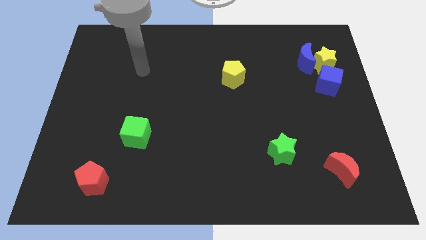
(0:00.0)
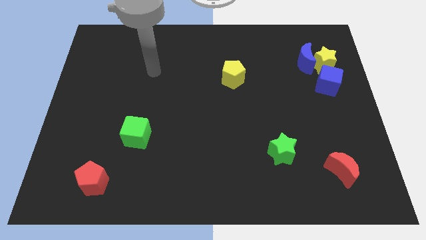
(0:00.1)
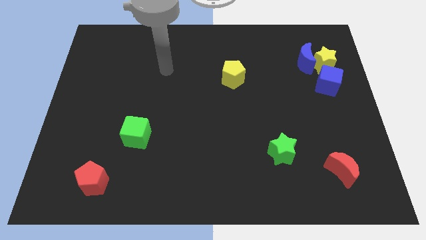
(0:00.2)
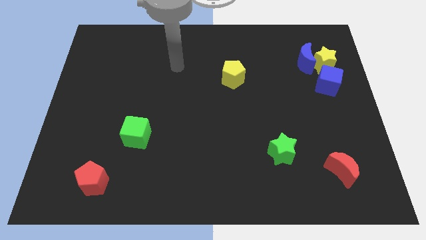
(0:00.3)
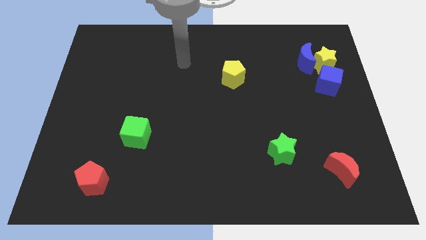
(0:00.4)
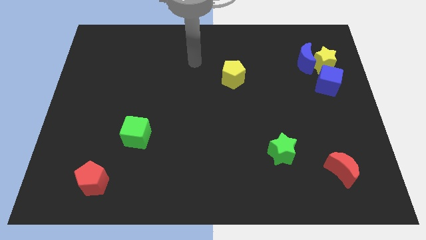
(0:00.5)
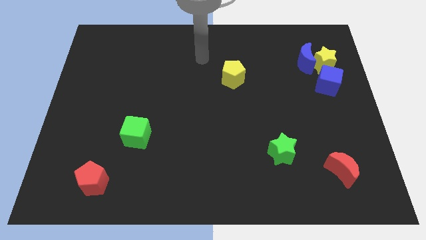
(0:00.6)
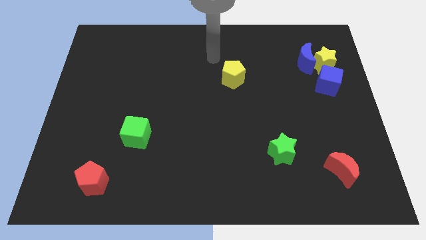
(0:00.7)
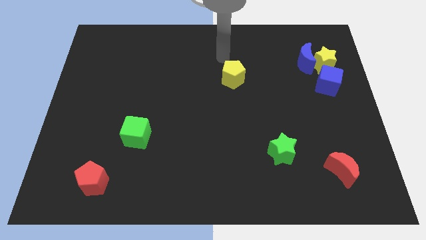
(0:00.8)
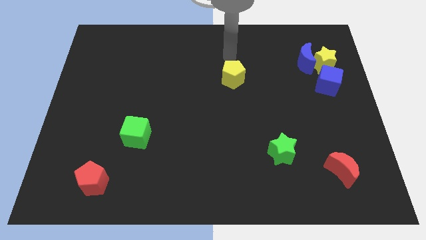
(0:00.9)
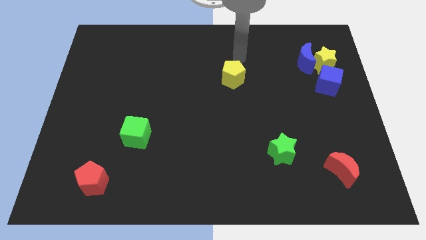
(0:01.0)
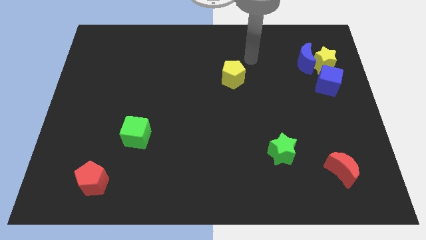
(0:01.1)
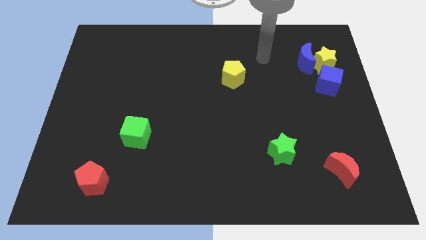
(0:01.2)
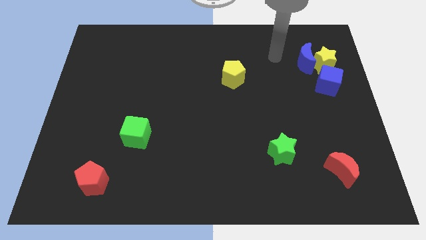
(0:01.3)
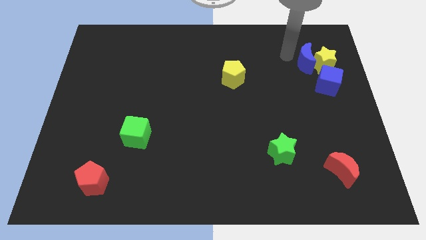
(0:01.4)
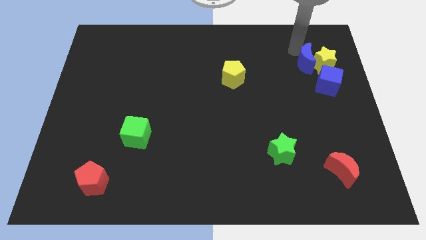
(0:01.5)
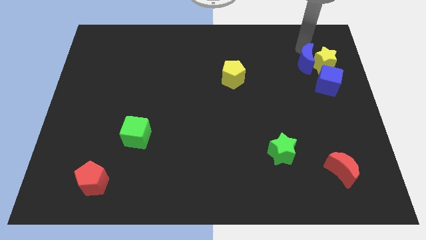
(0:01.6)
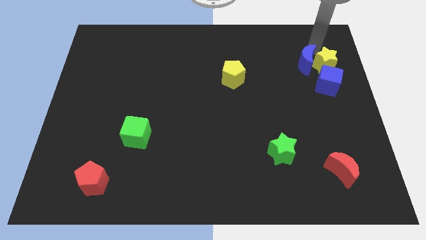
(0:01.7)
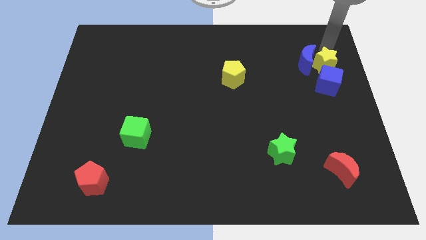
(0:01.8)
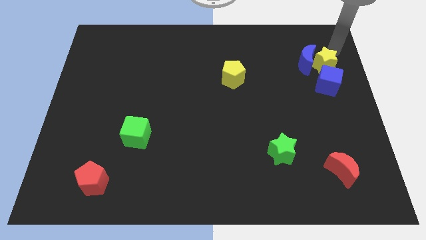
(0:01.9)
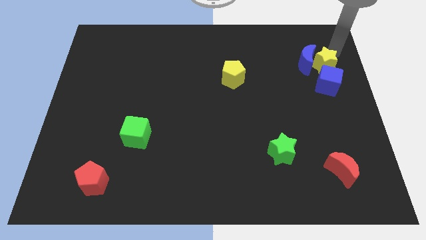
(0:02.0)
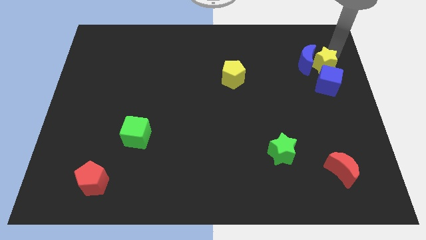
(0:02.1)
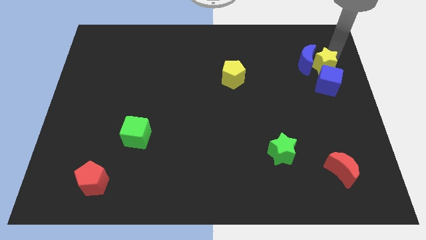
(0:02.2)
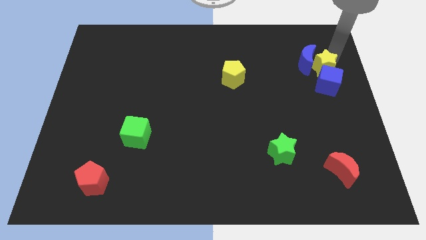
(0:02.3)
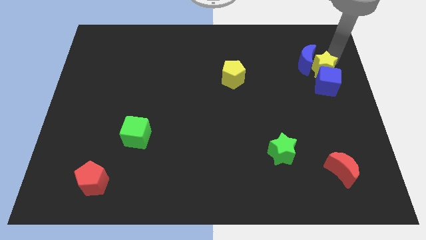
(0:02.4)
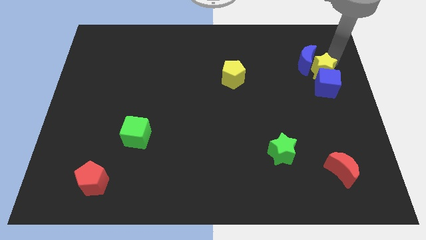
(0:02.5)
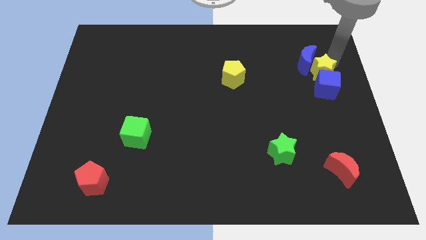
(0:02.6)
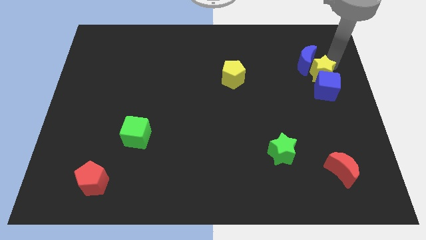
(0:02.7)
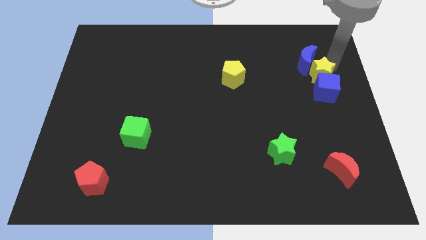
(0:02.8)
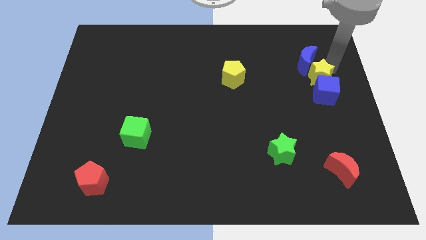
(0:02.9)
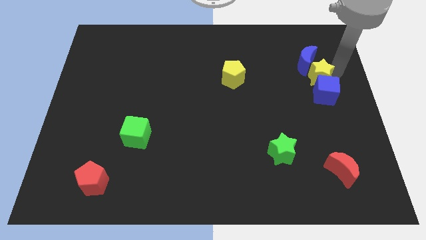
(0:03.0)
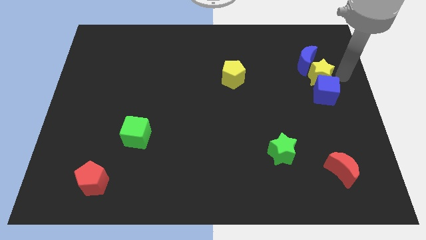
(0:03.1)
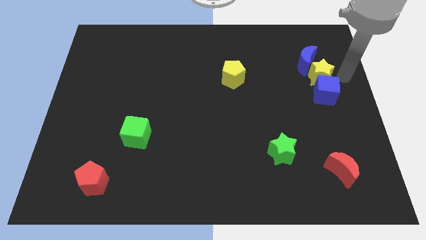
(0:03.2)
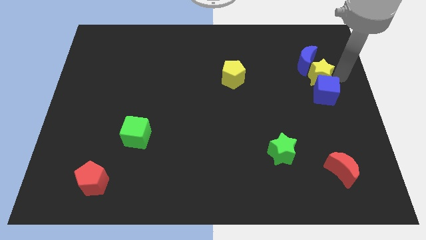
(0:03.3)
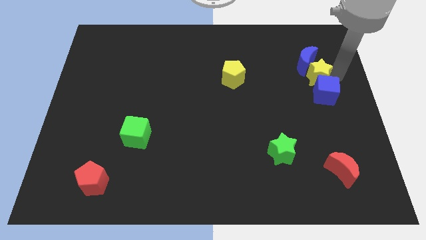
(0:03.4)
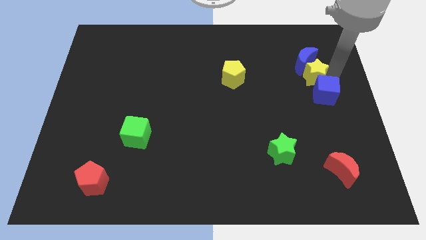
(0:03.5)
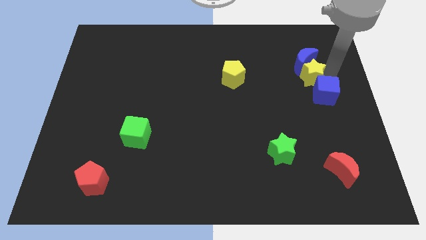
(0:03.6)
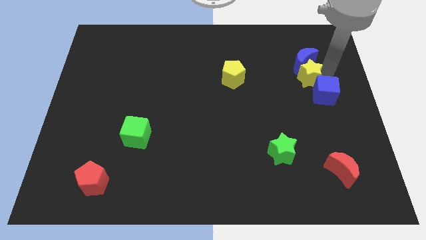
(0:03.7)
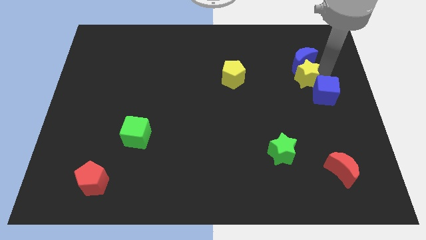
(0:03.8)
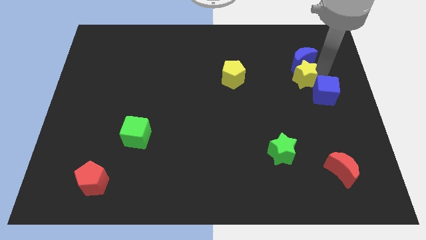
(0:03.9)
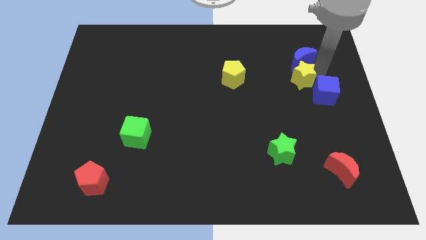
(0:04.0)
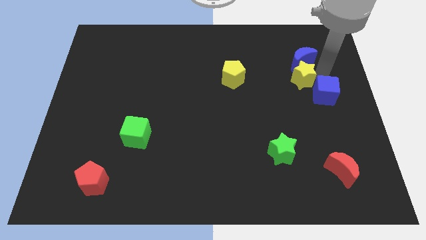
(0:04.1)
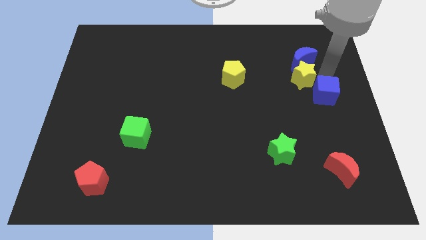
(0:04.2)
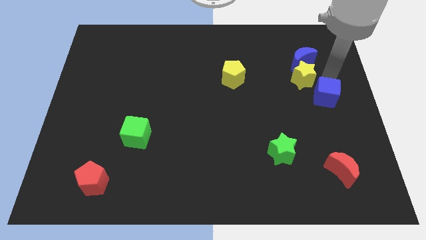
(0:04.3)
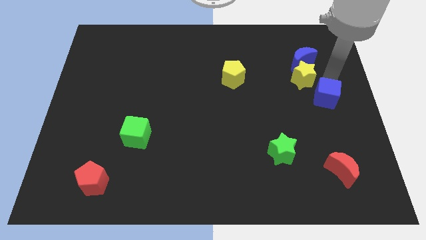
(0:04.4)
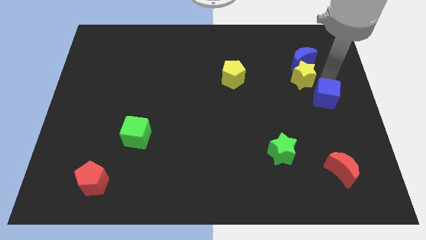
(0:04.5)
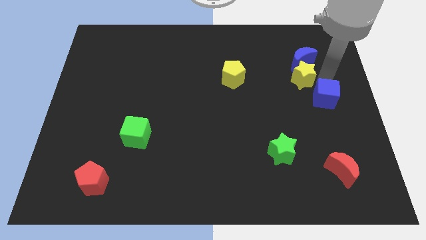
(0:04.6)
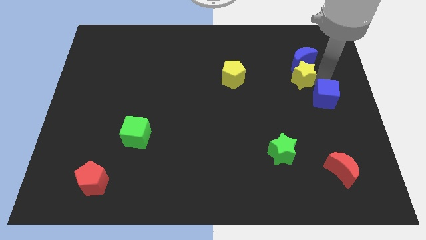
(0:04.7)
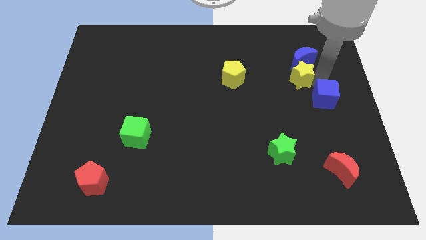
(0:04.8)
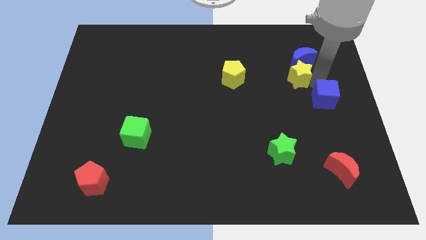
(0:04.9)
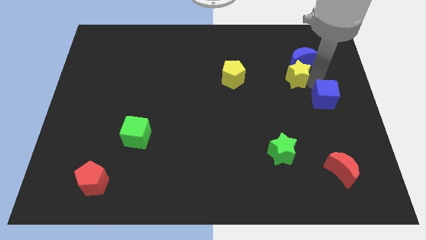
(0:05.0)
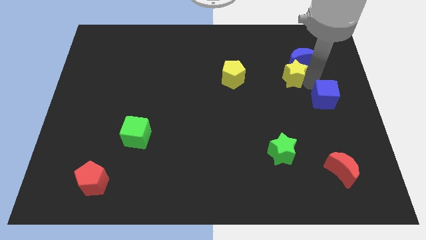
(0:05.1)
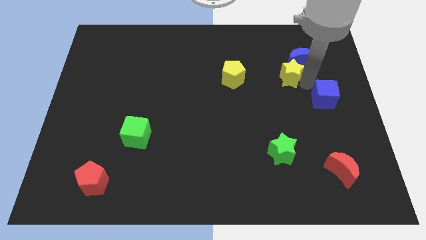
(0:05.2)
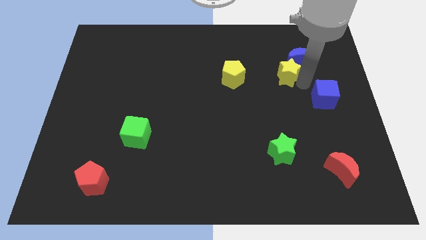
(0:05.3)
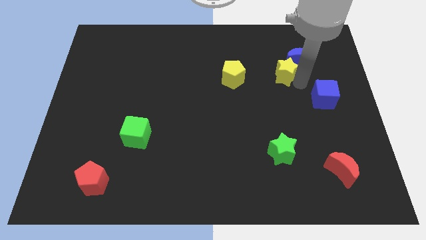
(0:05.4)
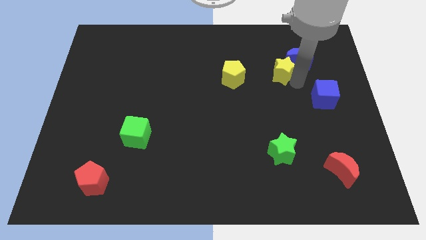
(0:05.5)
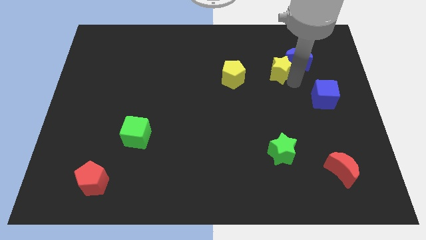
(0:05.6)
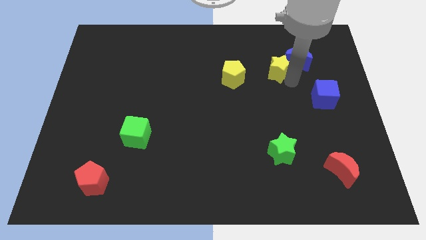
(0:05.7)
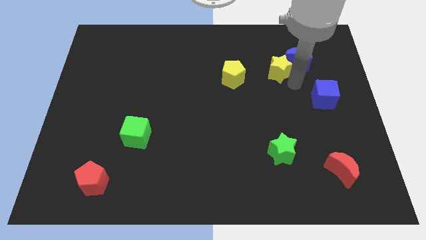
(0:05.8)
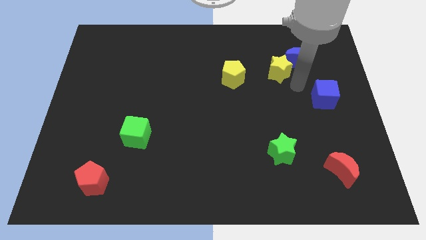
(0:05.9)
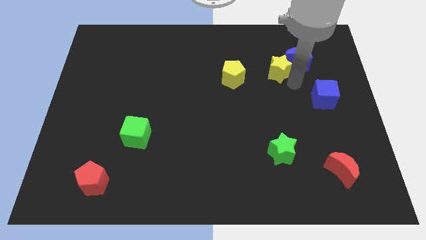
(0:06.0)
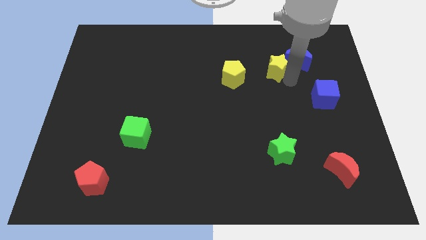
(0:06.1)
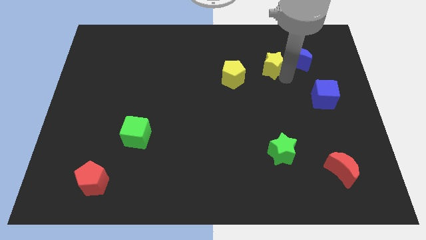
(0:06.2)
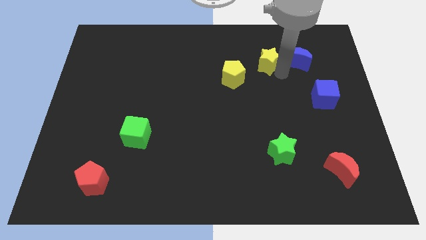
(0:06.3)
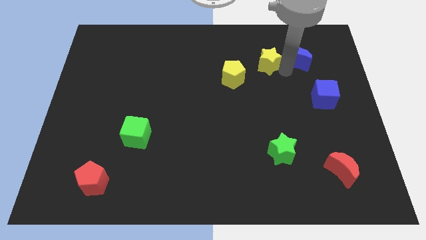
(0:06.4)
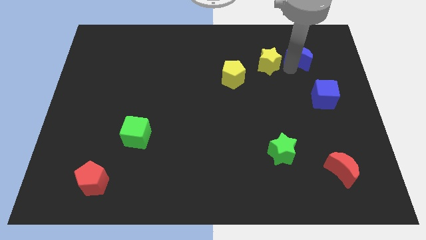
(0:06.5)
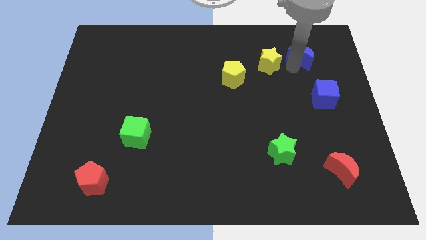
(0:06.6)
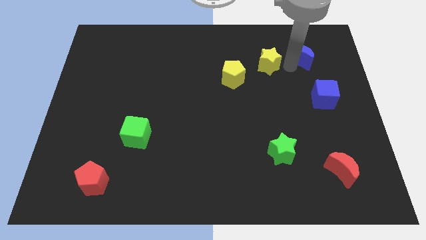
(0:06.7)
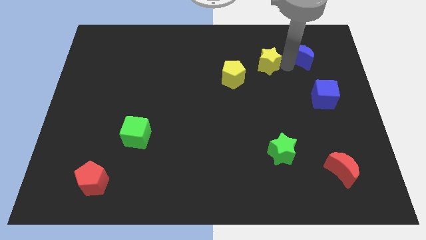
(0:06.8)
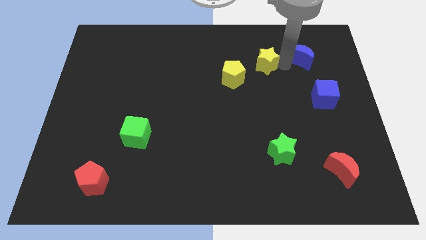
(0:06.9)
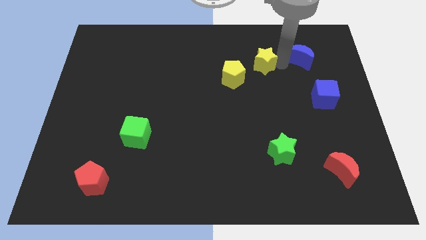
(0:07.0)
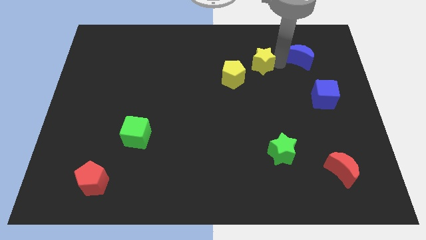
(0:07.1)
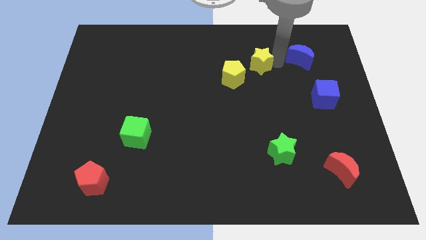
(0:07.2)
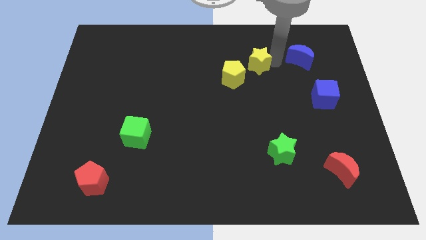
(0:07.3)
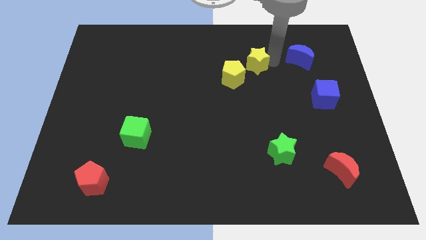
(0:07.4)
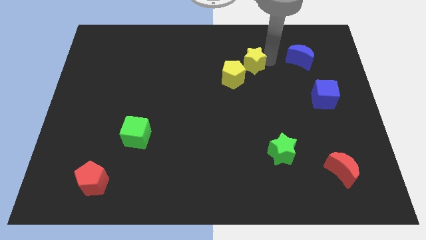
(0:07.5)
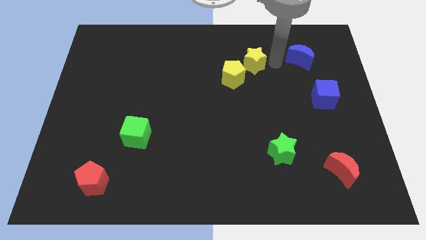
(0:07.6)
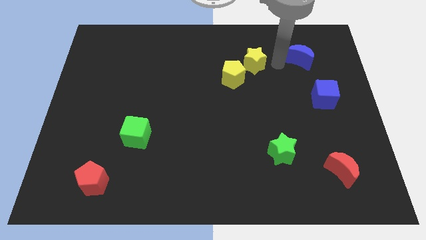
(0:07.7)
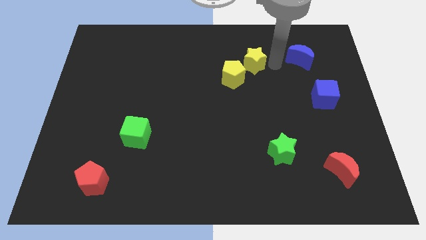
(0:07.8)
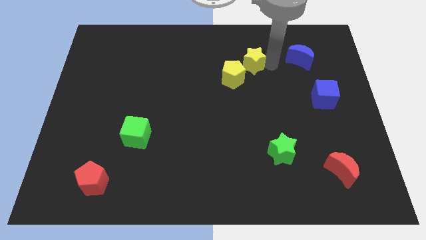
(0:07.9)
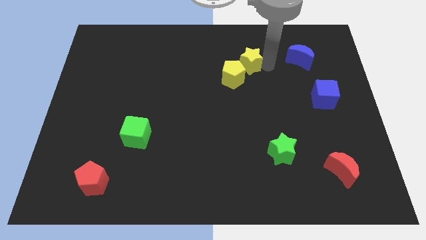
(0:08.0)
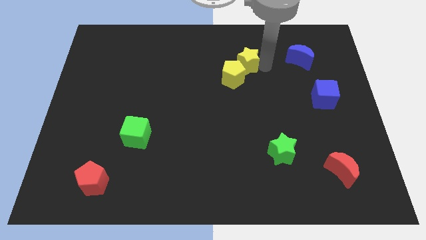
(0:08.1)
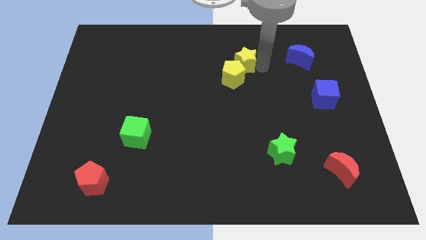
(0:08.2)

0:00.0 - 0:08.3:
slide the yellow star left
